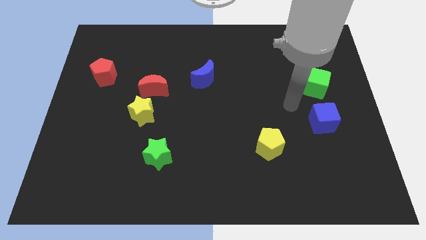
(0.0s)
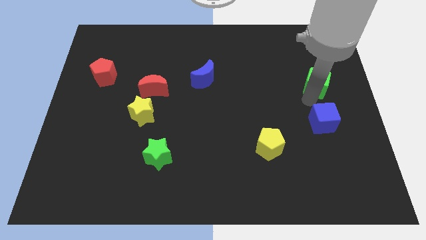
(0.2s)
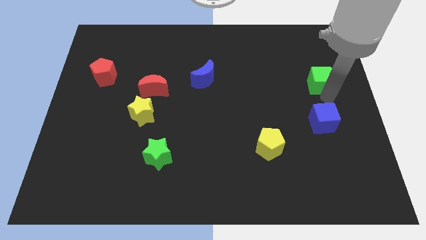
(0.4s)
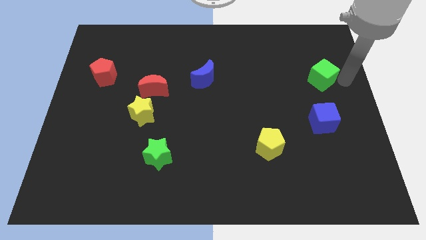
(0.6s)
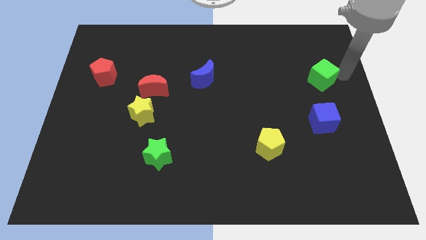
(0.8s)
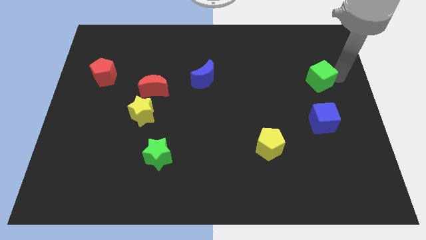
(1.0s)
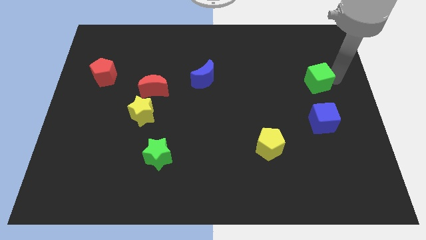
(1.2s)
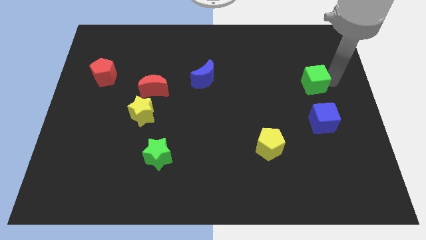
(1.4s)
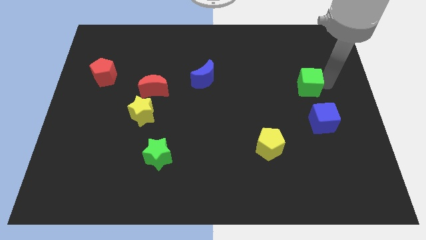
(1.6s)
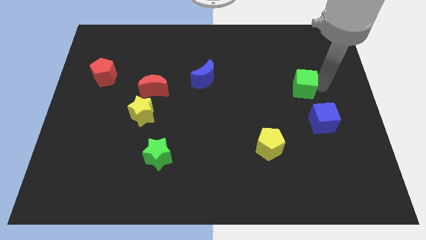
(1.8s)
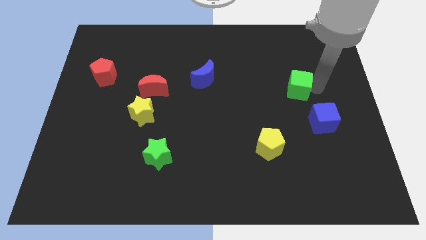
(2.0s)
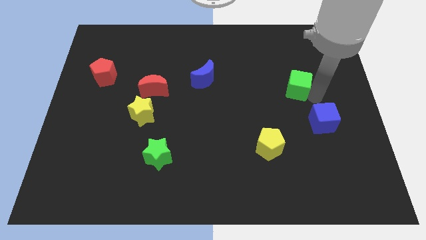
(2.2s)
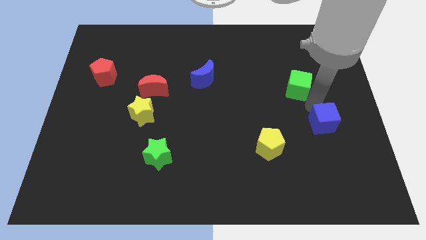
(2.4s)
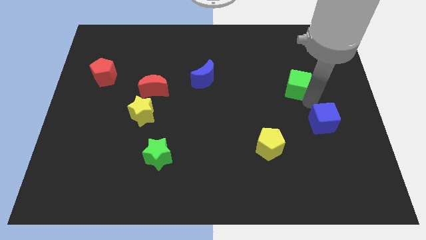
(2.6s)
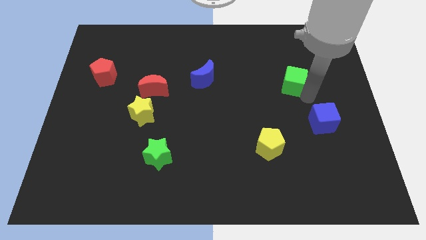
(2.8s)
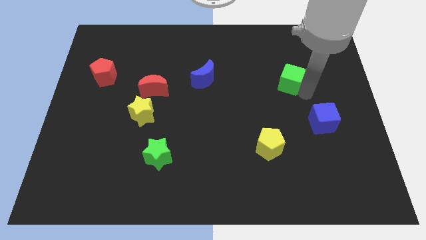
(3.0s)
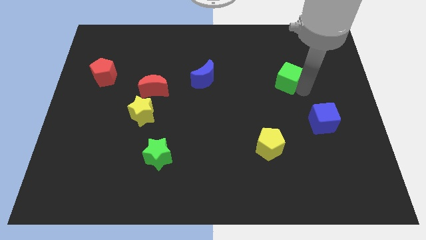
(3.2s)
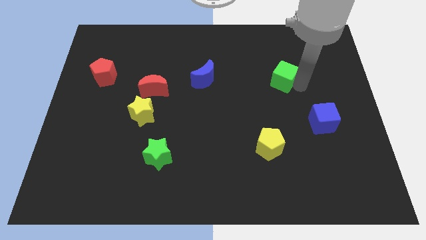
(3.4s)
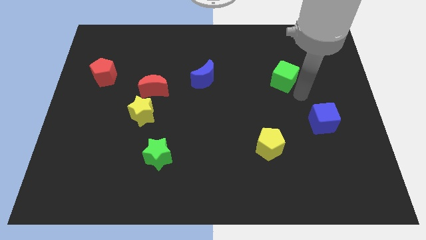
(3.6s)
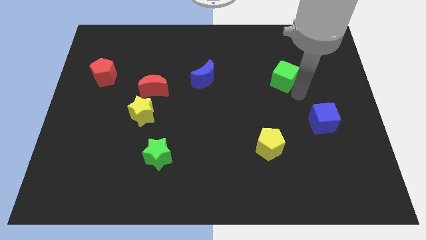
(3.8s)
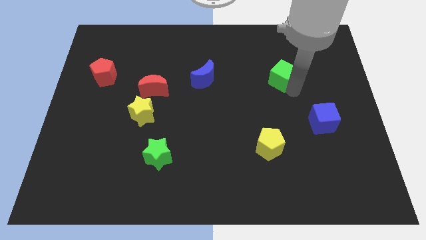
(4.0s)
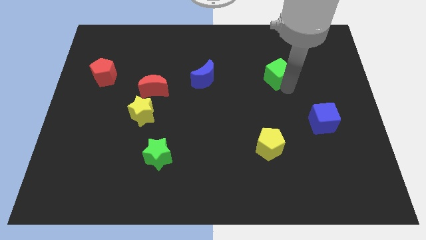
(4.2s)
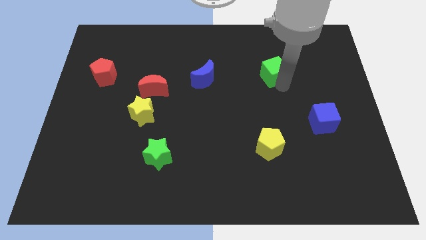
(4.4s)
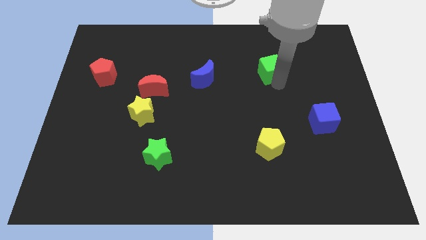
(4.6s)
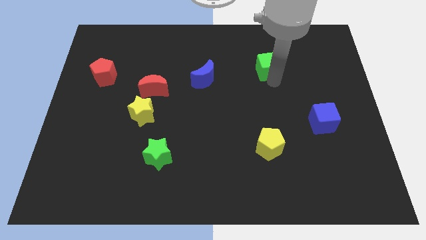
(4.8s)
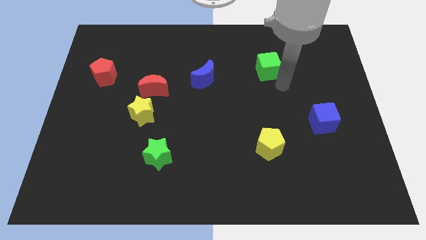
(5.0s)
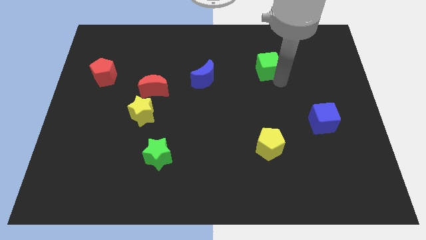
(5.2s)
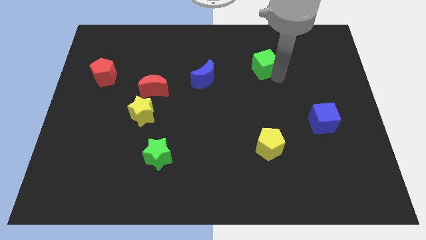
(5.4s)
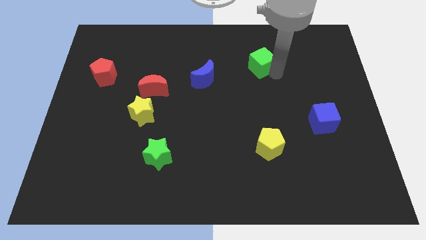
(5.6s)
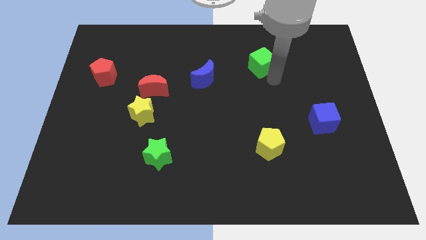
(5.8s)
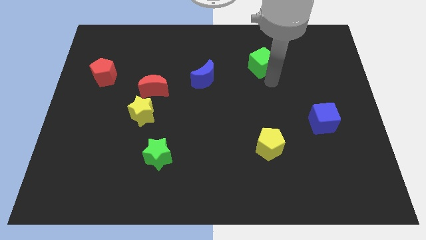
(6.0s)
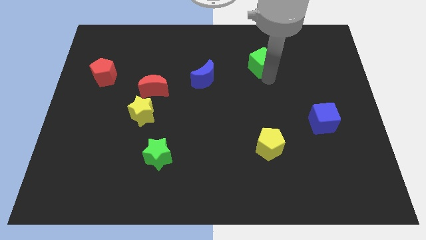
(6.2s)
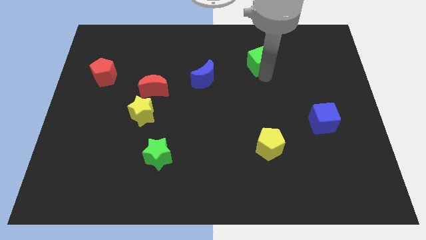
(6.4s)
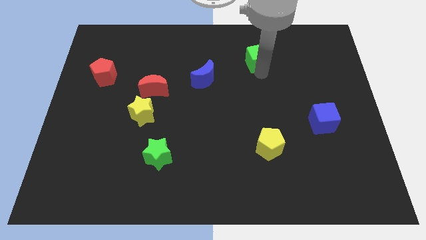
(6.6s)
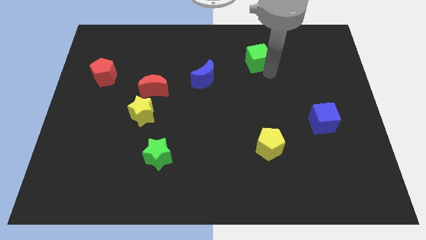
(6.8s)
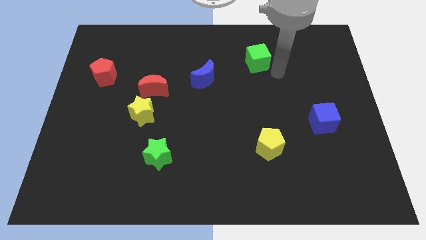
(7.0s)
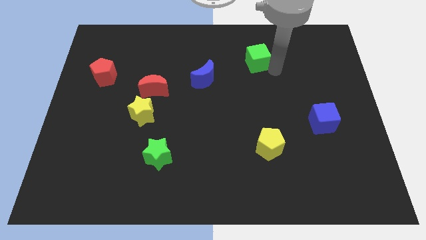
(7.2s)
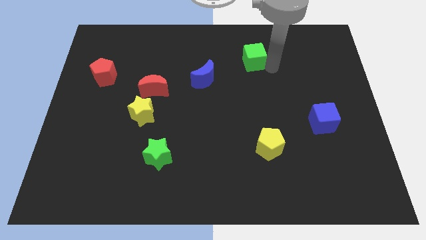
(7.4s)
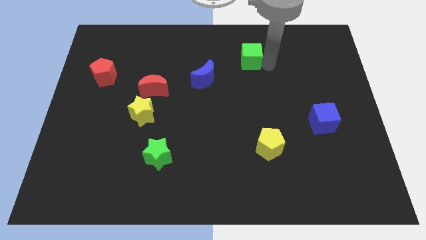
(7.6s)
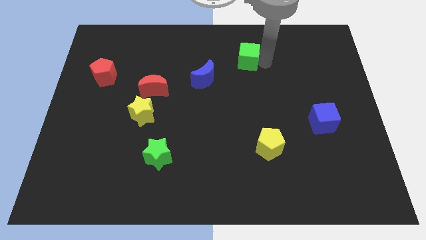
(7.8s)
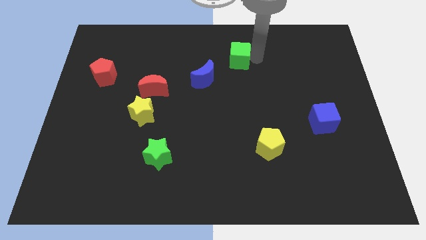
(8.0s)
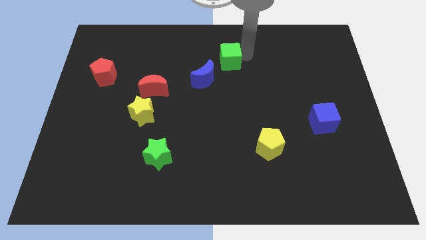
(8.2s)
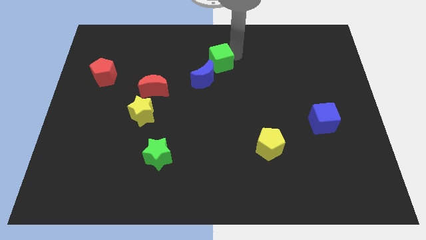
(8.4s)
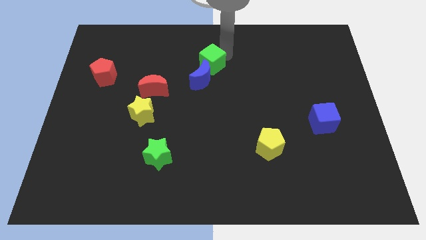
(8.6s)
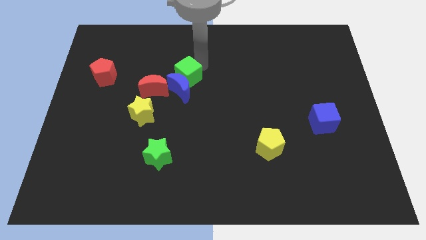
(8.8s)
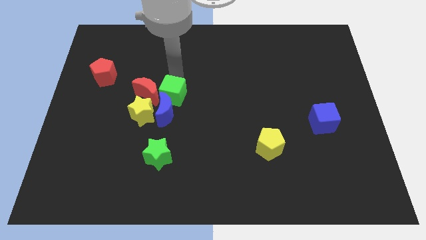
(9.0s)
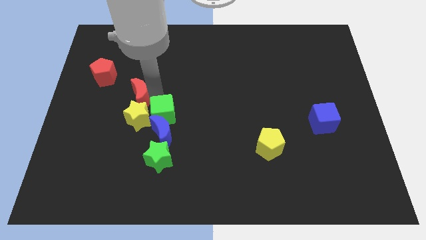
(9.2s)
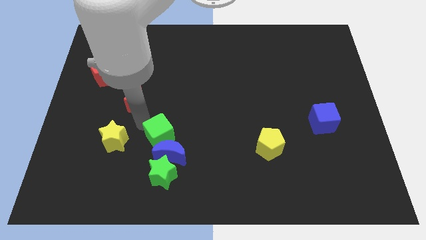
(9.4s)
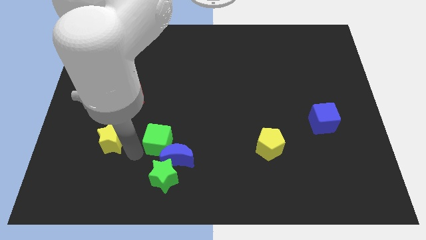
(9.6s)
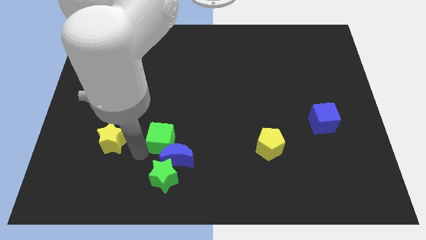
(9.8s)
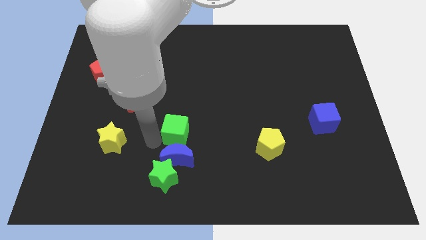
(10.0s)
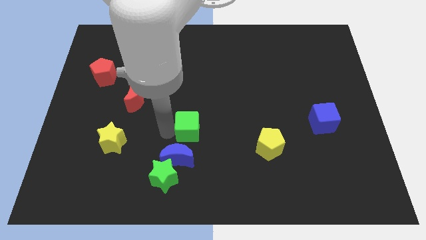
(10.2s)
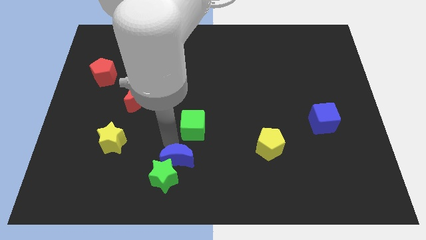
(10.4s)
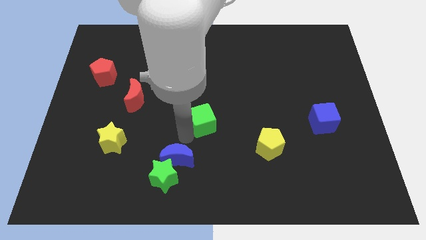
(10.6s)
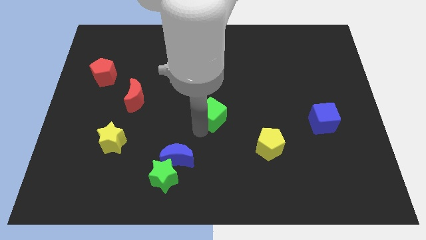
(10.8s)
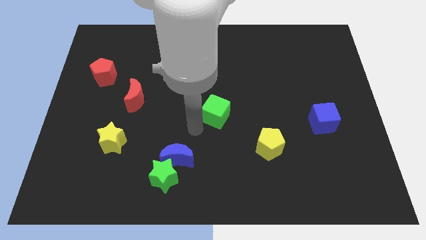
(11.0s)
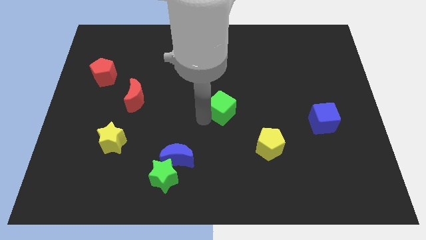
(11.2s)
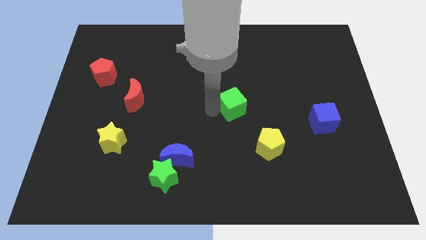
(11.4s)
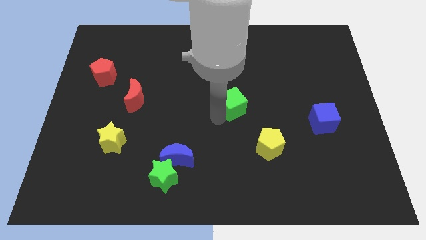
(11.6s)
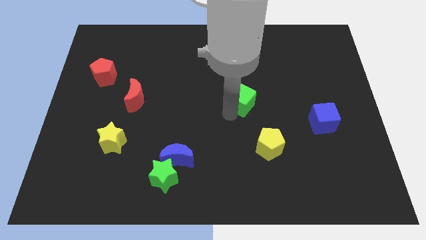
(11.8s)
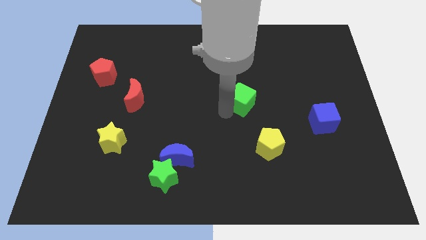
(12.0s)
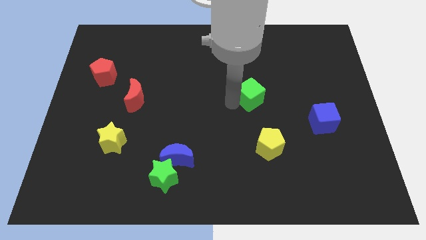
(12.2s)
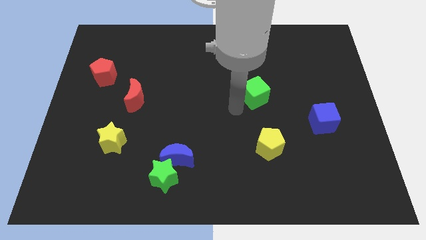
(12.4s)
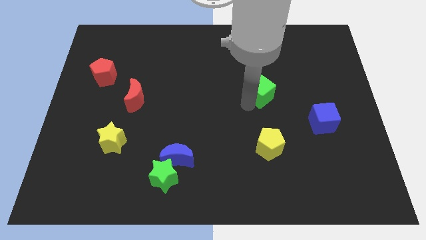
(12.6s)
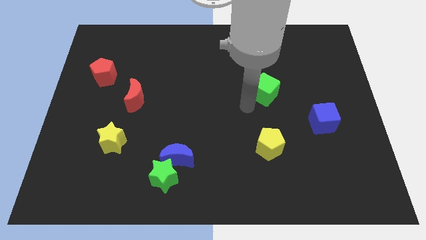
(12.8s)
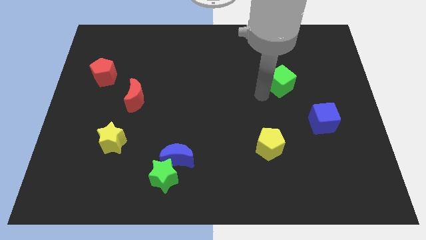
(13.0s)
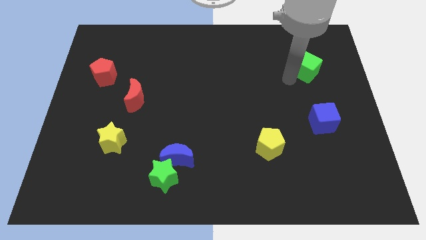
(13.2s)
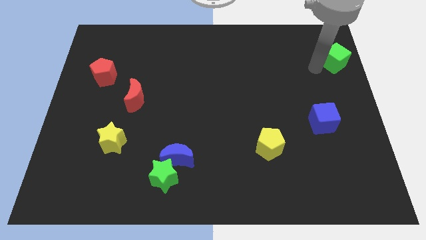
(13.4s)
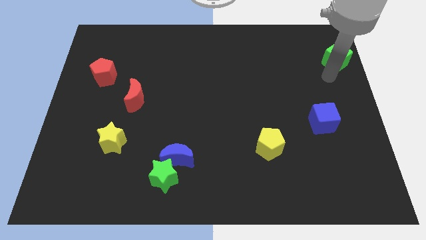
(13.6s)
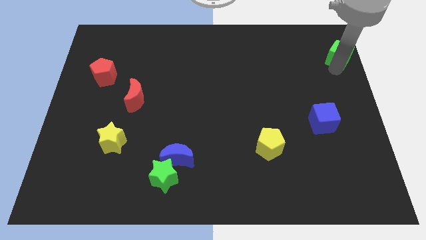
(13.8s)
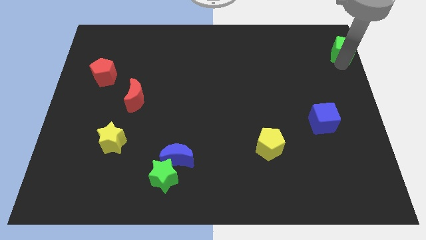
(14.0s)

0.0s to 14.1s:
move the green cube to the top right corner
